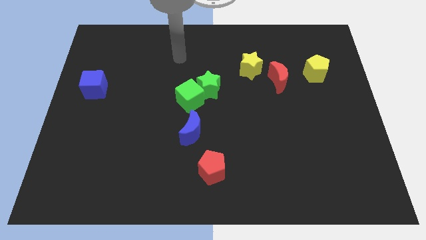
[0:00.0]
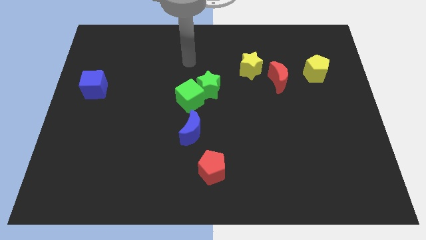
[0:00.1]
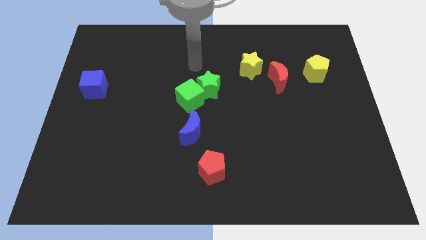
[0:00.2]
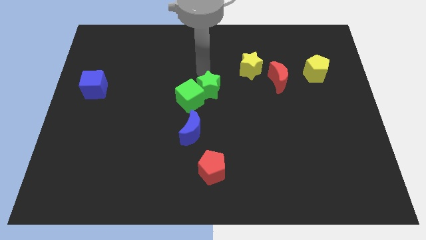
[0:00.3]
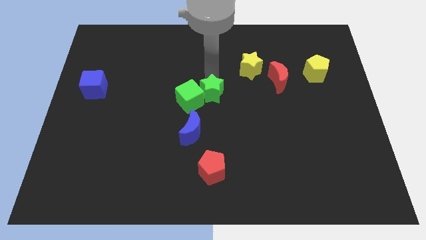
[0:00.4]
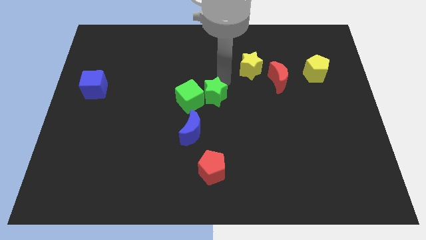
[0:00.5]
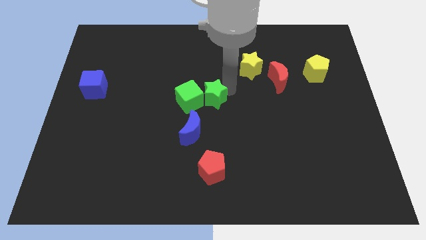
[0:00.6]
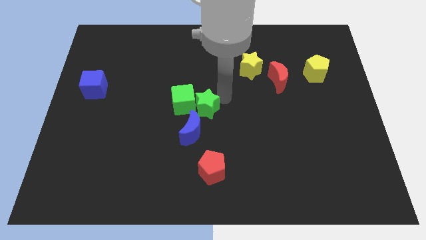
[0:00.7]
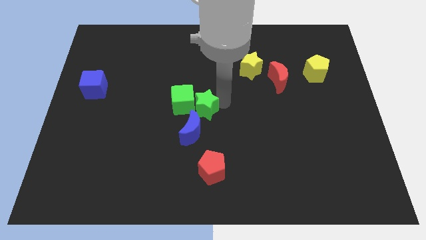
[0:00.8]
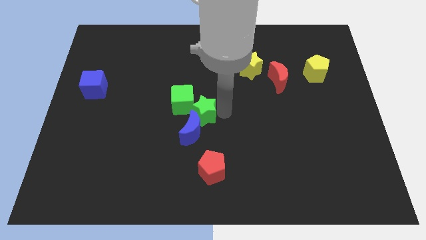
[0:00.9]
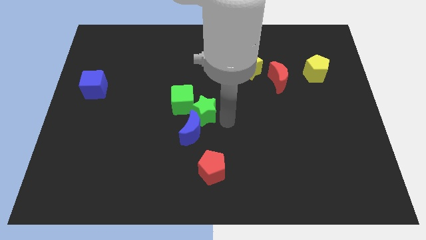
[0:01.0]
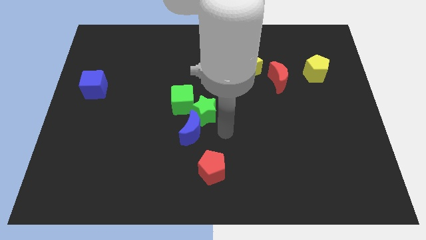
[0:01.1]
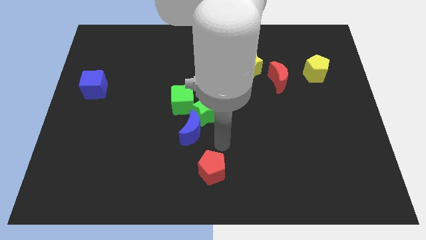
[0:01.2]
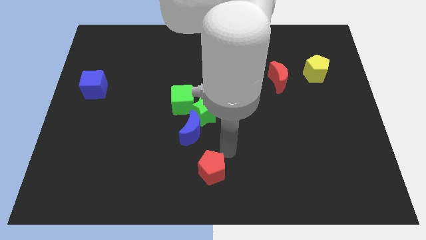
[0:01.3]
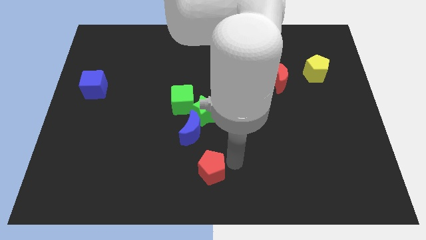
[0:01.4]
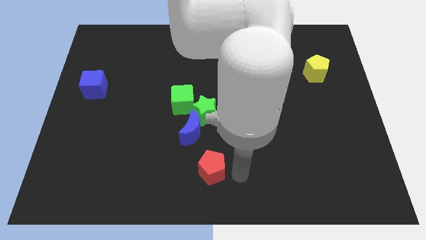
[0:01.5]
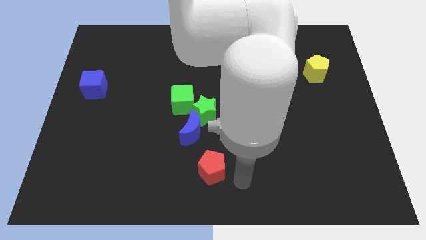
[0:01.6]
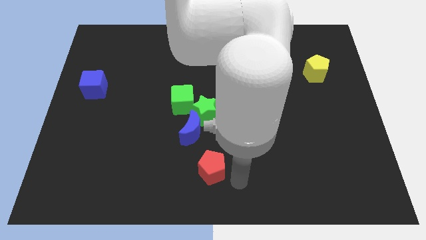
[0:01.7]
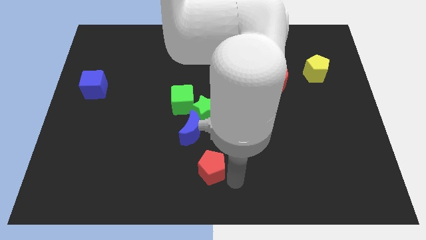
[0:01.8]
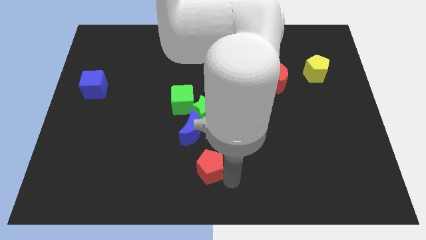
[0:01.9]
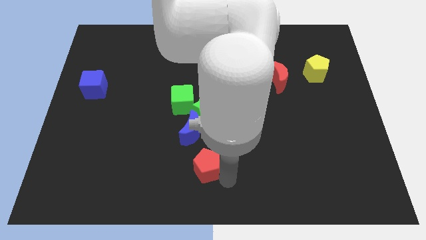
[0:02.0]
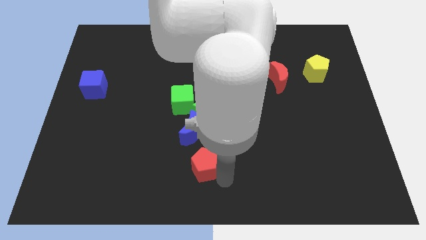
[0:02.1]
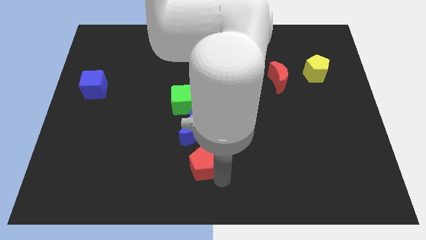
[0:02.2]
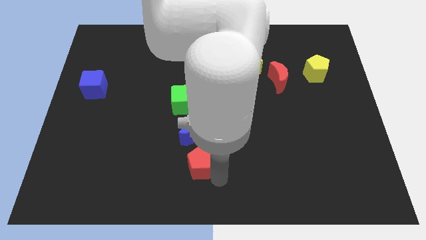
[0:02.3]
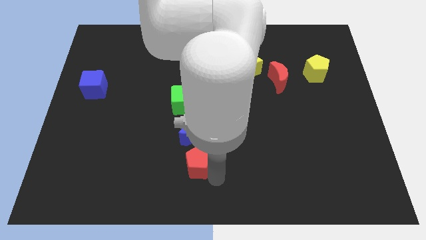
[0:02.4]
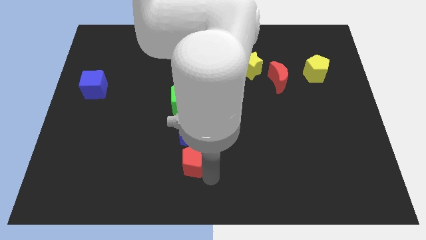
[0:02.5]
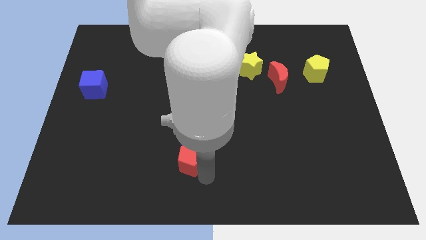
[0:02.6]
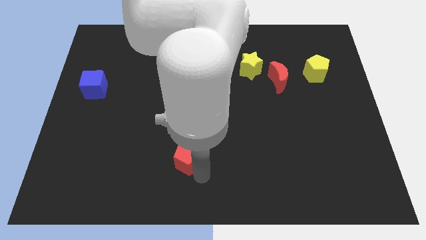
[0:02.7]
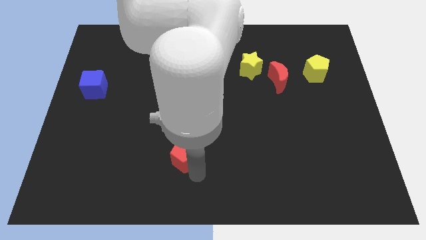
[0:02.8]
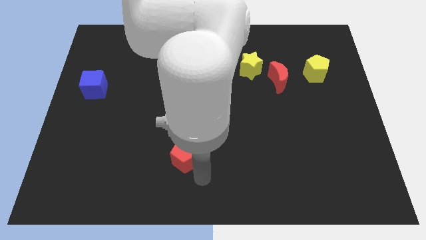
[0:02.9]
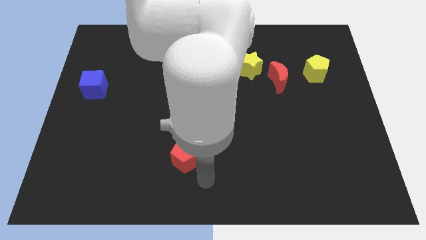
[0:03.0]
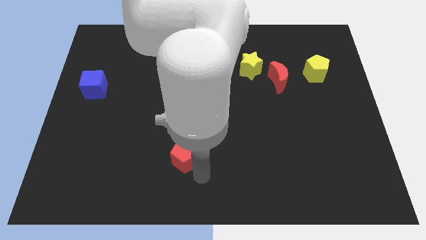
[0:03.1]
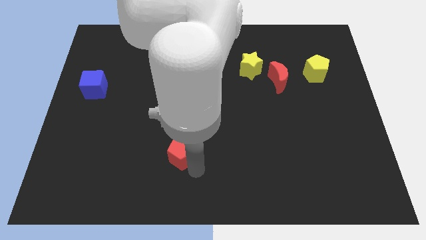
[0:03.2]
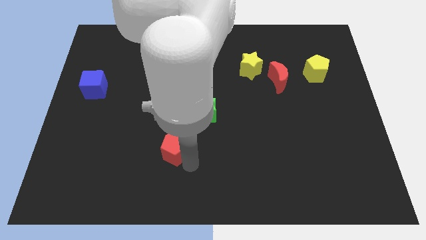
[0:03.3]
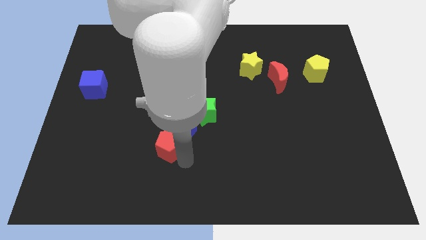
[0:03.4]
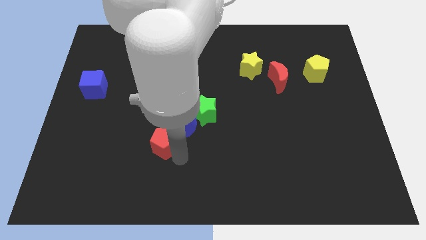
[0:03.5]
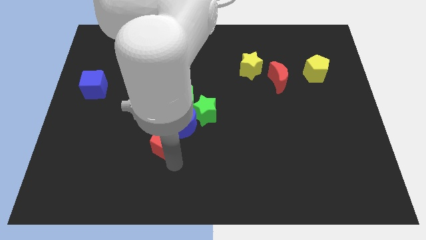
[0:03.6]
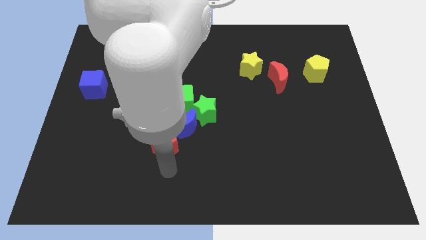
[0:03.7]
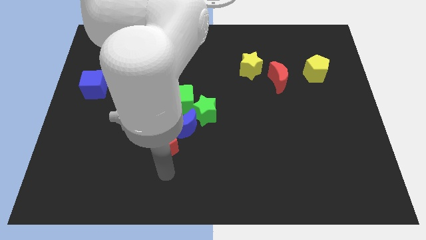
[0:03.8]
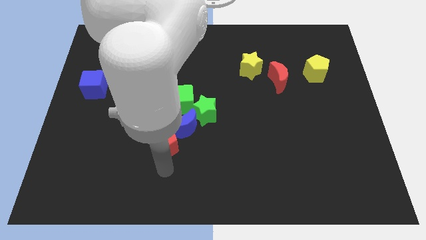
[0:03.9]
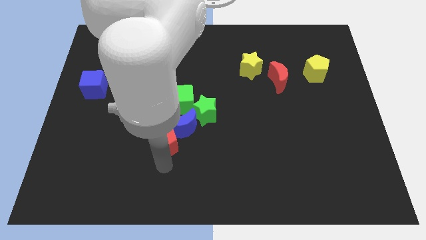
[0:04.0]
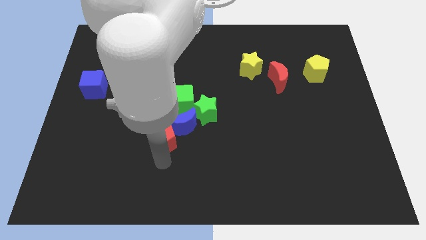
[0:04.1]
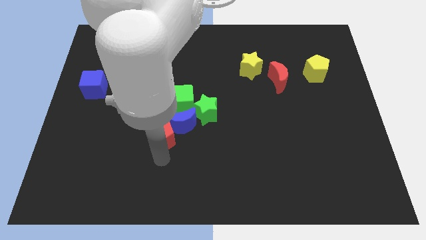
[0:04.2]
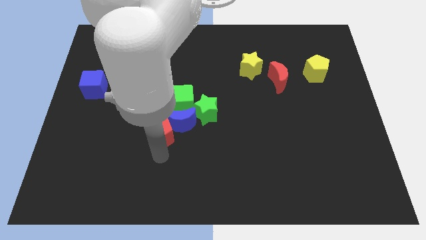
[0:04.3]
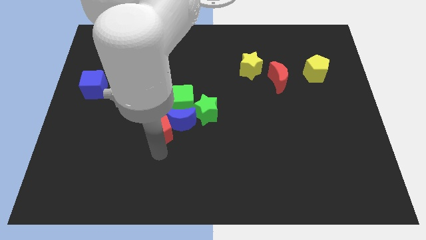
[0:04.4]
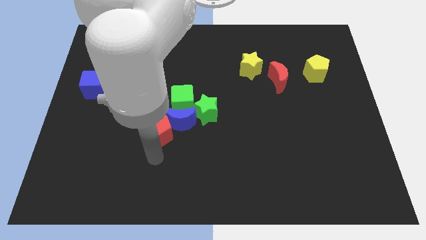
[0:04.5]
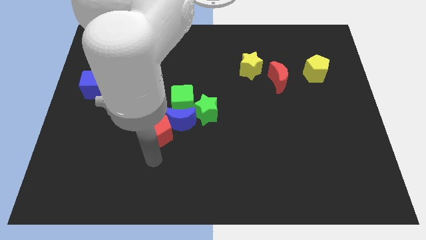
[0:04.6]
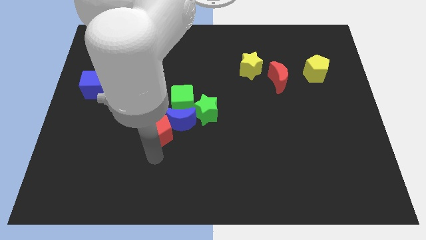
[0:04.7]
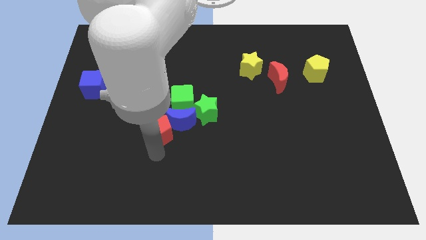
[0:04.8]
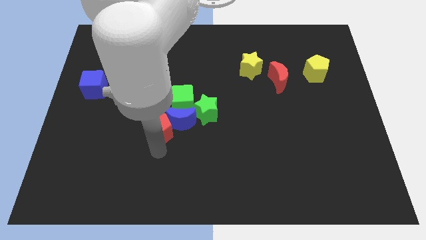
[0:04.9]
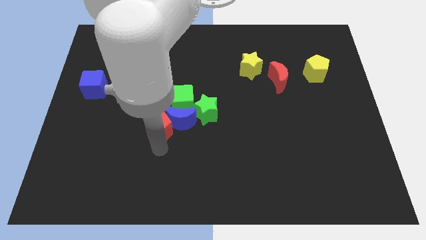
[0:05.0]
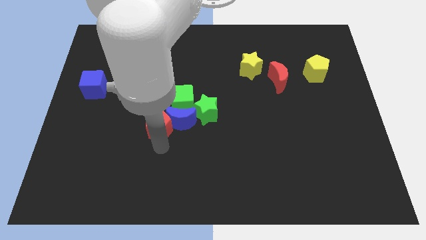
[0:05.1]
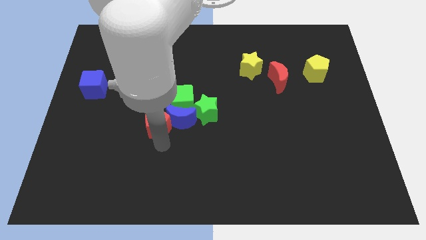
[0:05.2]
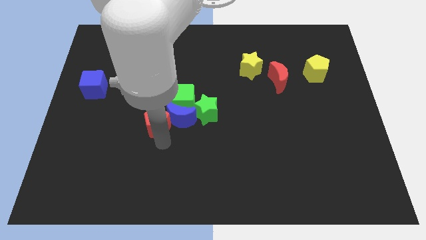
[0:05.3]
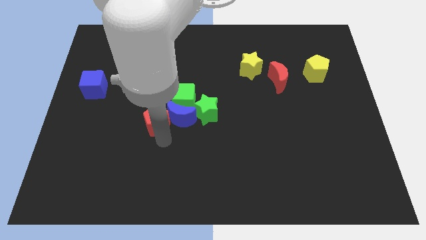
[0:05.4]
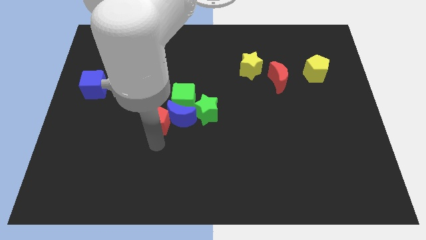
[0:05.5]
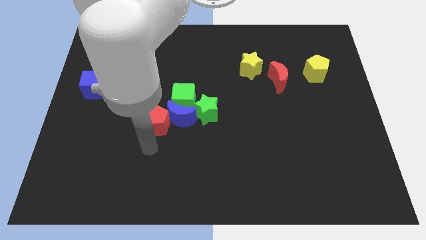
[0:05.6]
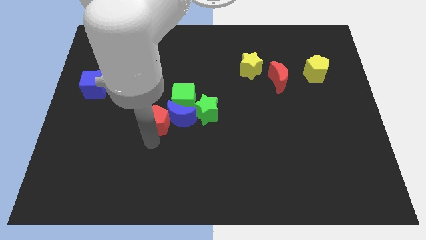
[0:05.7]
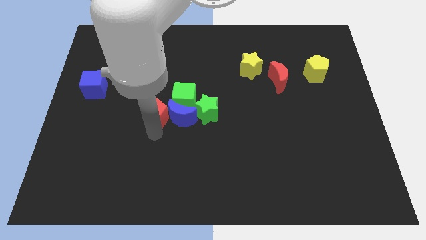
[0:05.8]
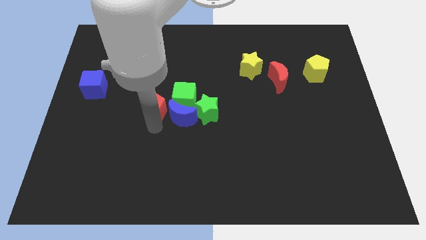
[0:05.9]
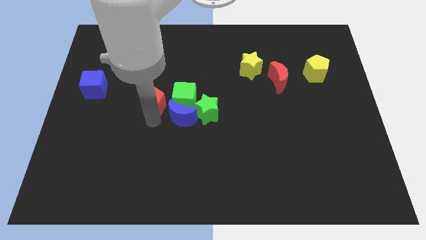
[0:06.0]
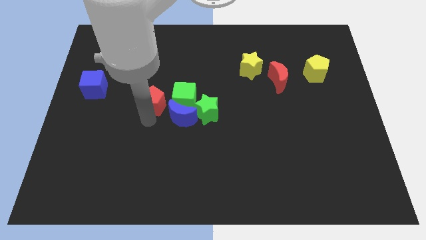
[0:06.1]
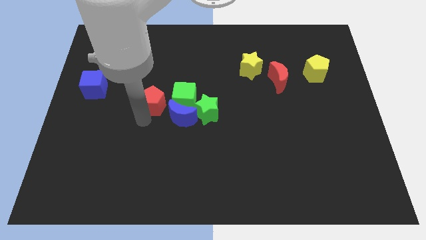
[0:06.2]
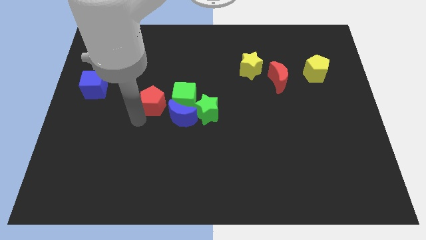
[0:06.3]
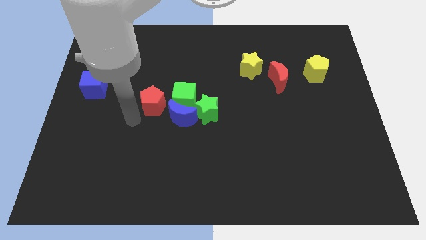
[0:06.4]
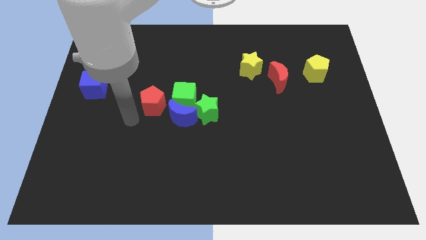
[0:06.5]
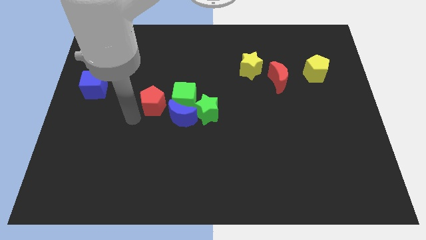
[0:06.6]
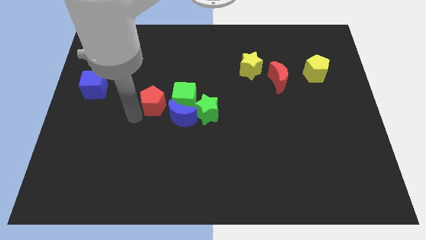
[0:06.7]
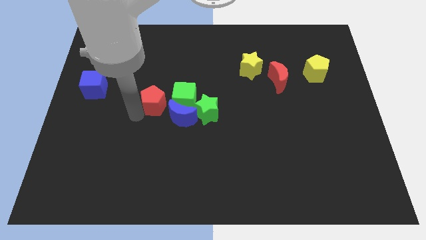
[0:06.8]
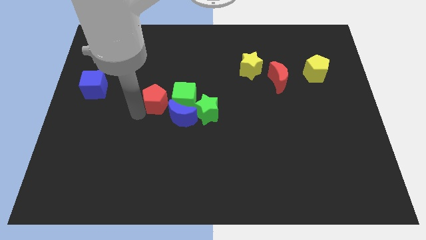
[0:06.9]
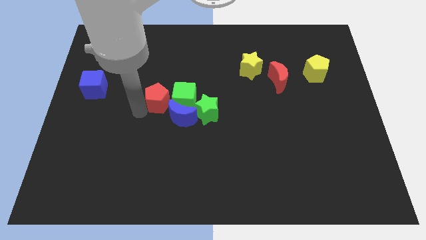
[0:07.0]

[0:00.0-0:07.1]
slide the red pentagon diagonally up and to the left of the green cube
